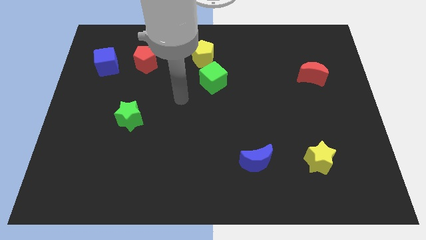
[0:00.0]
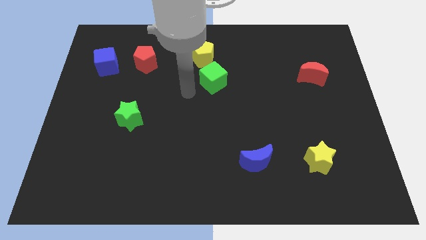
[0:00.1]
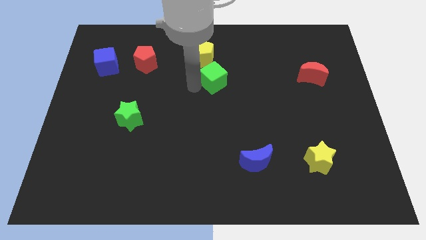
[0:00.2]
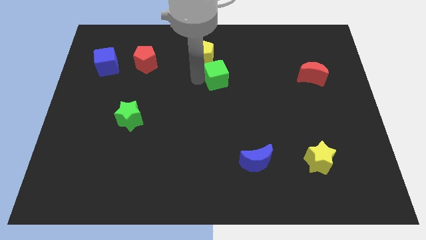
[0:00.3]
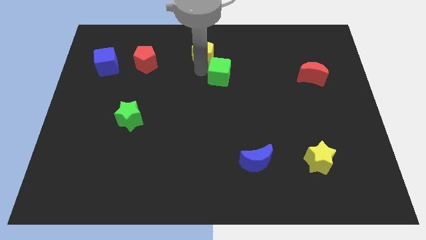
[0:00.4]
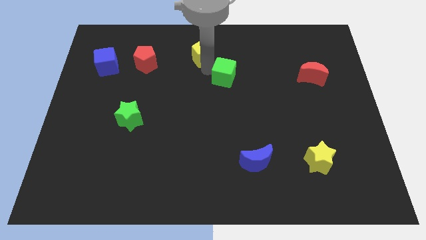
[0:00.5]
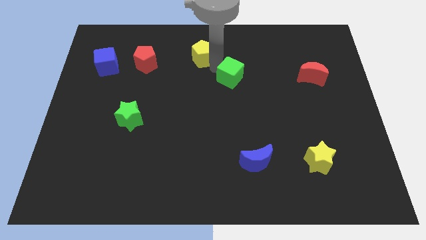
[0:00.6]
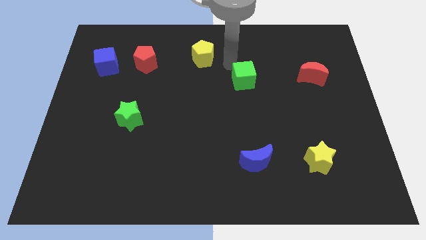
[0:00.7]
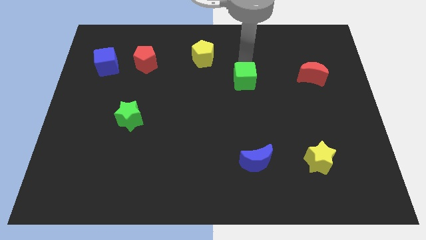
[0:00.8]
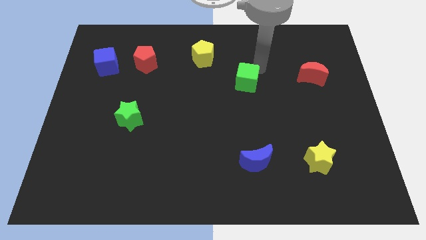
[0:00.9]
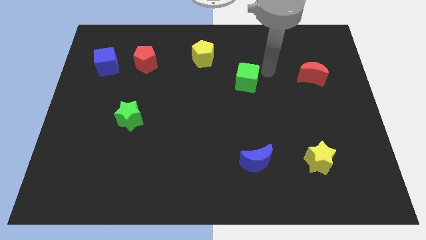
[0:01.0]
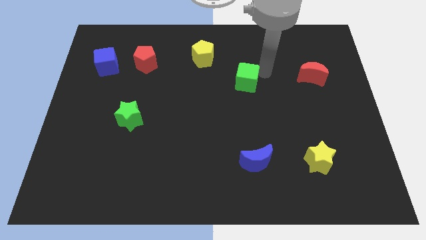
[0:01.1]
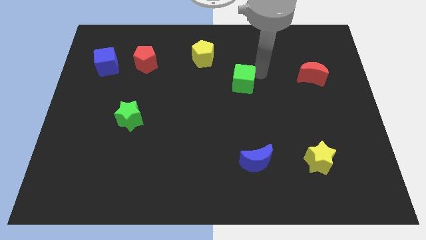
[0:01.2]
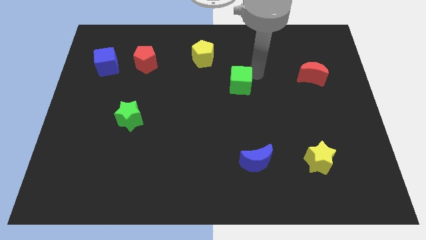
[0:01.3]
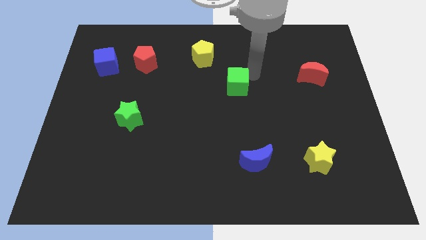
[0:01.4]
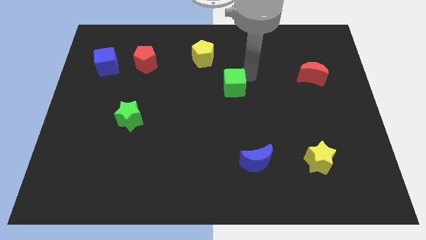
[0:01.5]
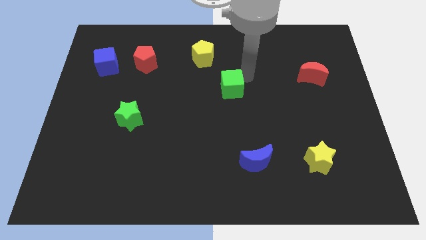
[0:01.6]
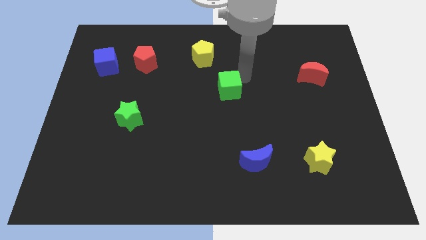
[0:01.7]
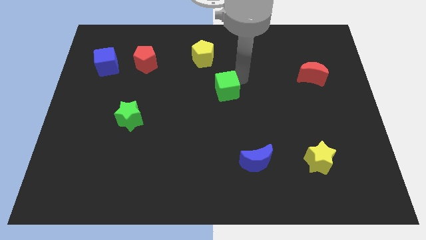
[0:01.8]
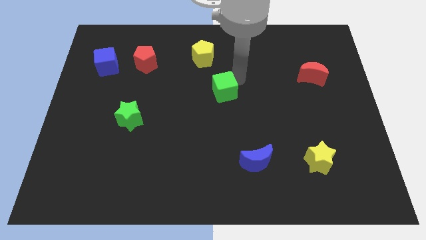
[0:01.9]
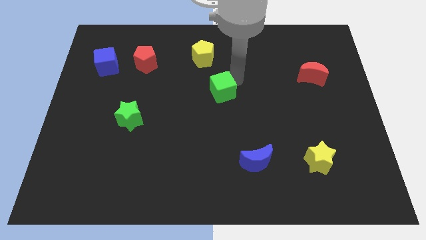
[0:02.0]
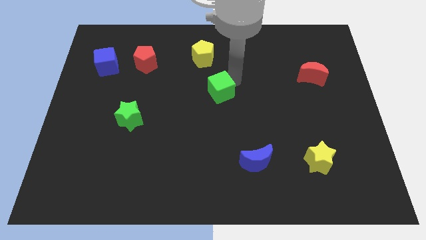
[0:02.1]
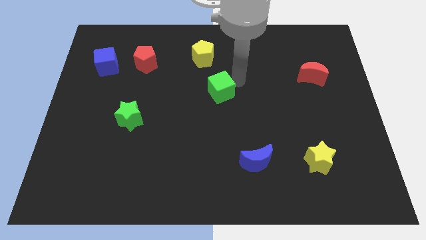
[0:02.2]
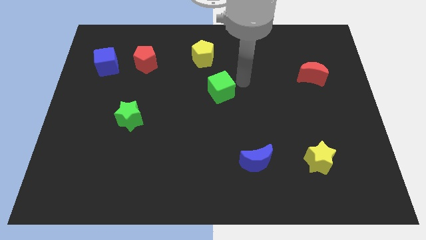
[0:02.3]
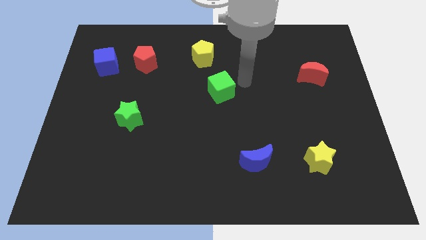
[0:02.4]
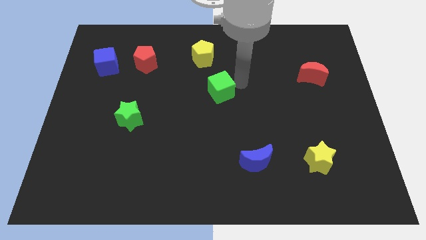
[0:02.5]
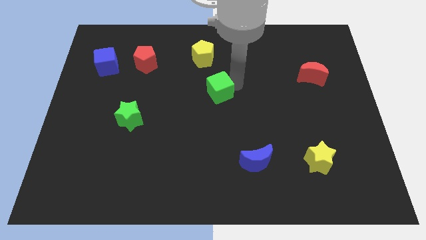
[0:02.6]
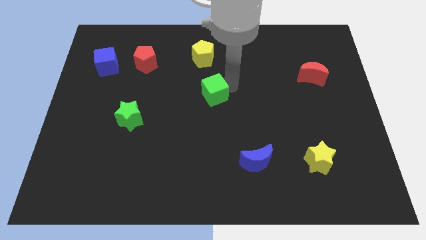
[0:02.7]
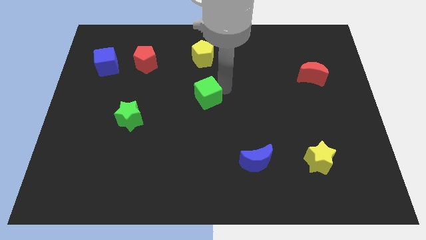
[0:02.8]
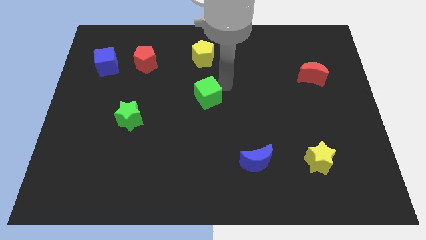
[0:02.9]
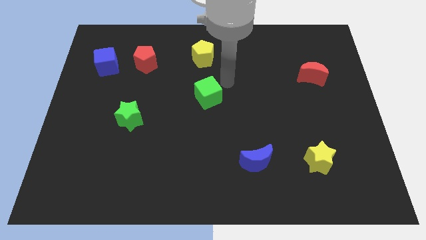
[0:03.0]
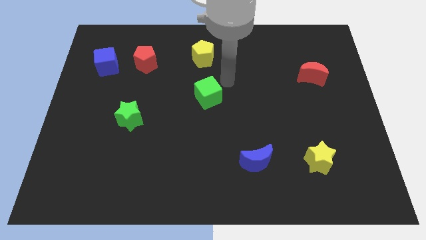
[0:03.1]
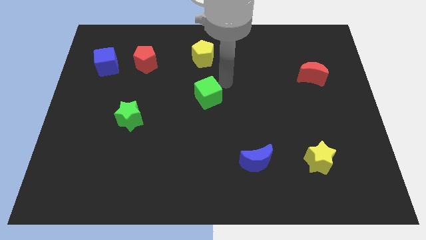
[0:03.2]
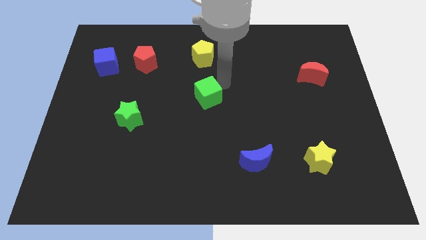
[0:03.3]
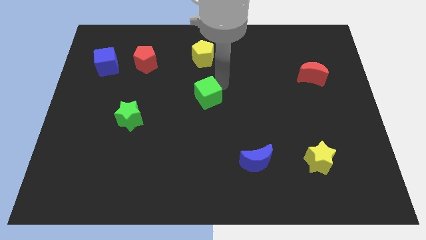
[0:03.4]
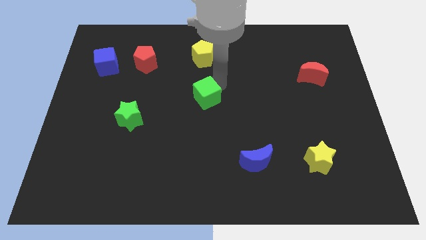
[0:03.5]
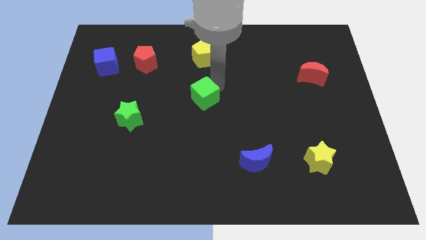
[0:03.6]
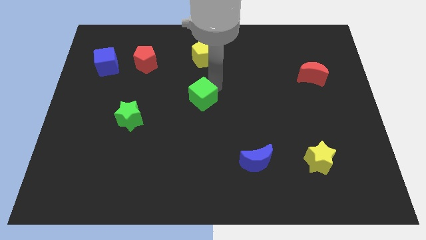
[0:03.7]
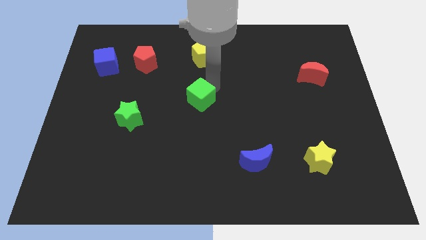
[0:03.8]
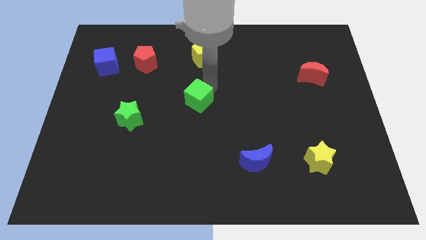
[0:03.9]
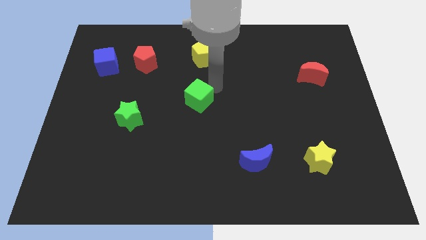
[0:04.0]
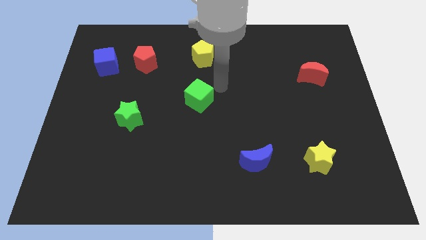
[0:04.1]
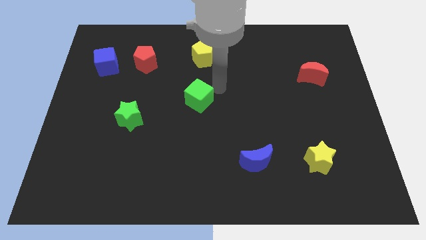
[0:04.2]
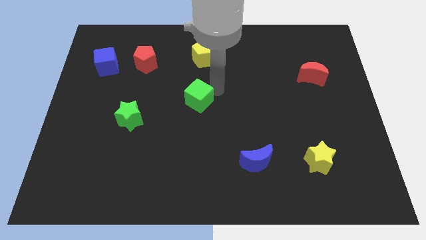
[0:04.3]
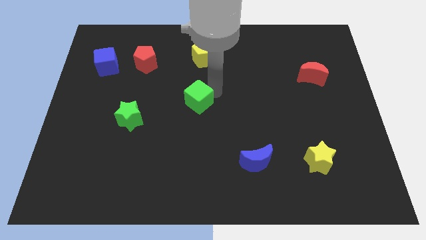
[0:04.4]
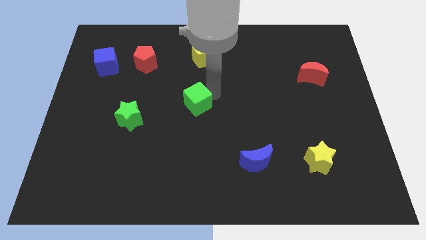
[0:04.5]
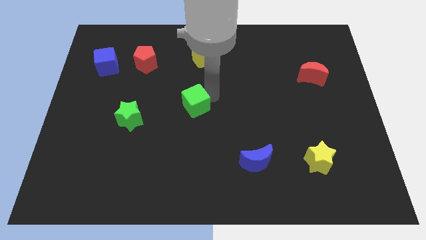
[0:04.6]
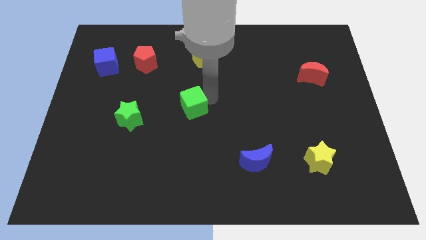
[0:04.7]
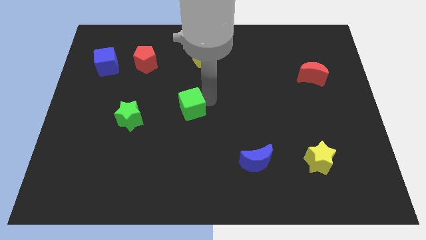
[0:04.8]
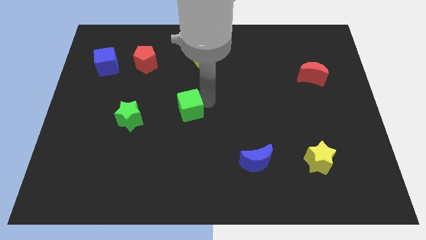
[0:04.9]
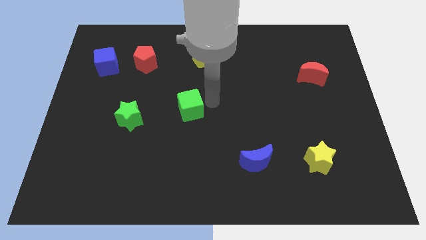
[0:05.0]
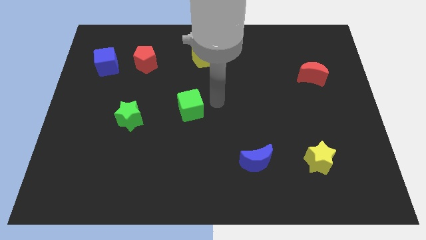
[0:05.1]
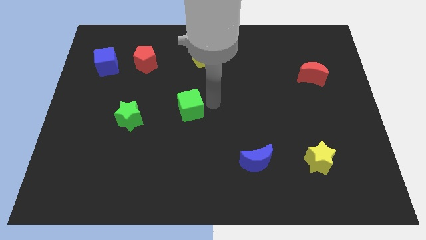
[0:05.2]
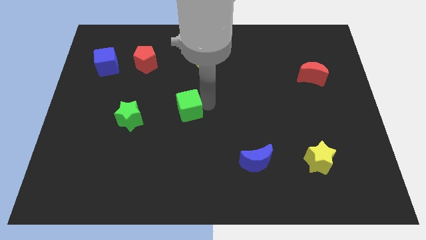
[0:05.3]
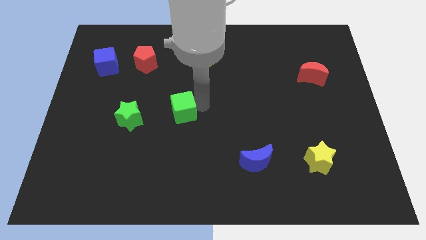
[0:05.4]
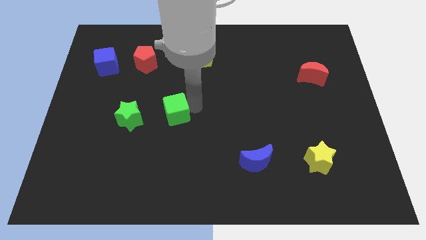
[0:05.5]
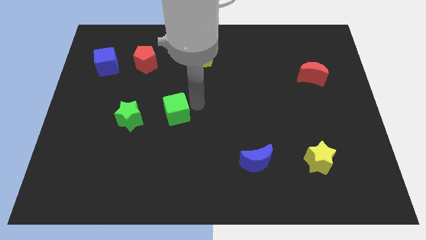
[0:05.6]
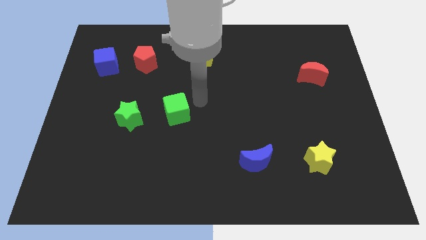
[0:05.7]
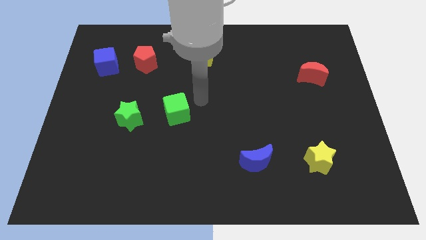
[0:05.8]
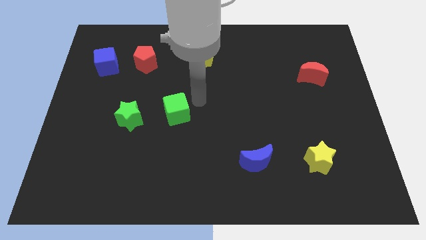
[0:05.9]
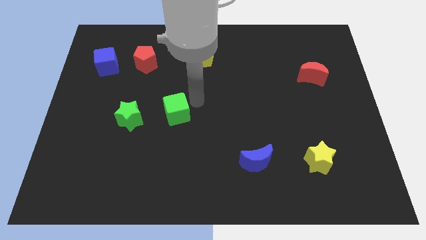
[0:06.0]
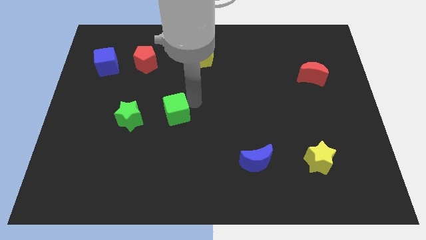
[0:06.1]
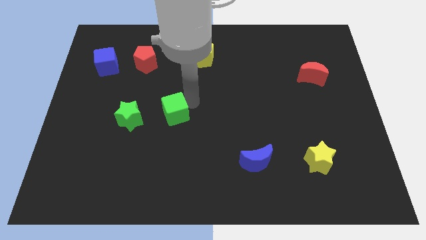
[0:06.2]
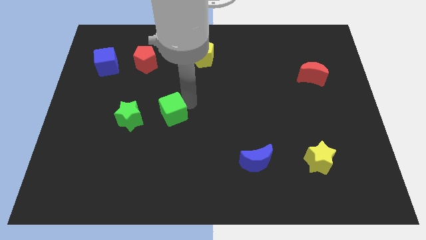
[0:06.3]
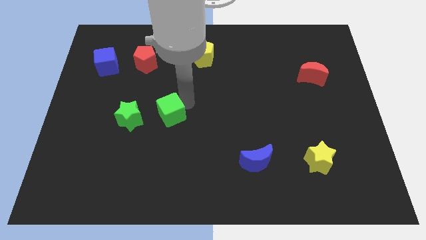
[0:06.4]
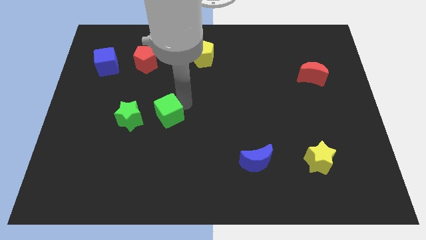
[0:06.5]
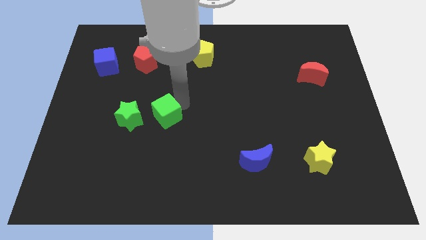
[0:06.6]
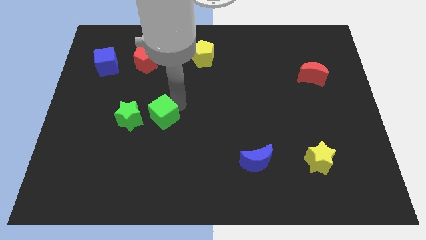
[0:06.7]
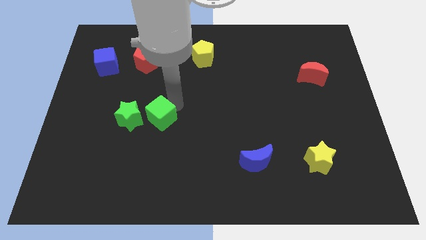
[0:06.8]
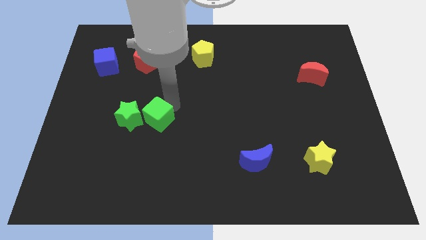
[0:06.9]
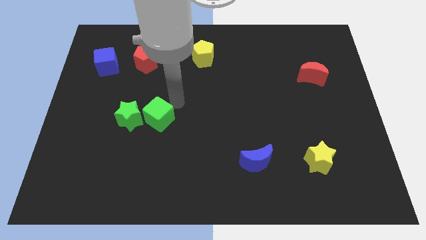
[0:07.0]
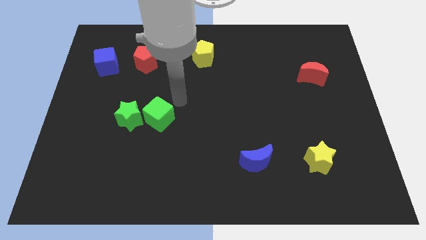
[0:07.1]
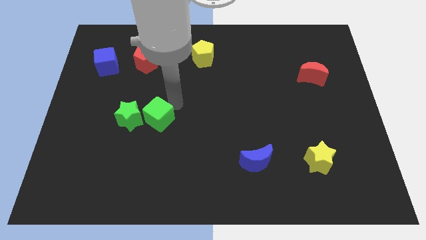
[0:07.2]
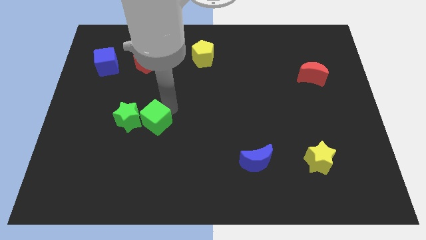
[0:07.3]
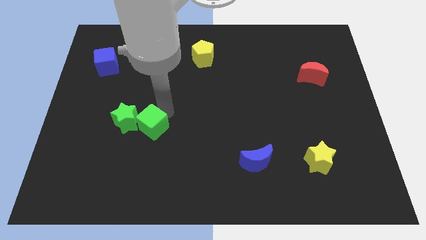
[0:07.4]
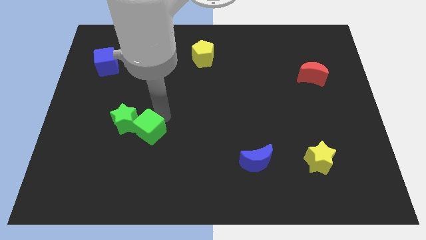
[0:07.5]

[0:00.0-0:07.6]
push the green cube diagonally down and left

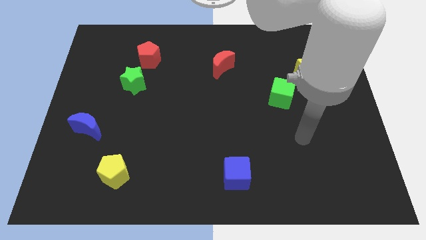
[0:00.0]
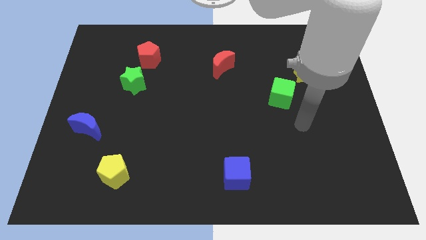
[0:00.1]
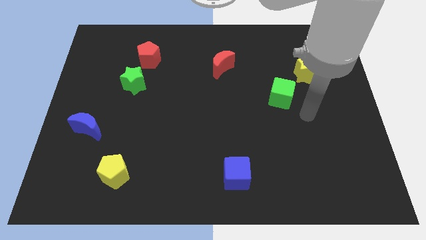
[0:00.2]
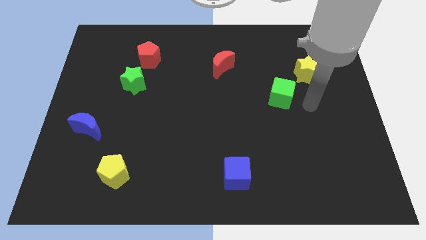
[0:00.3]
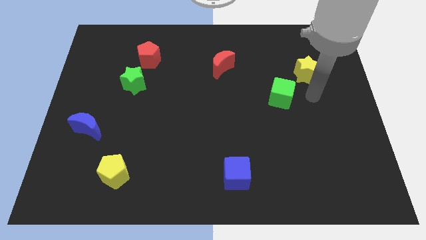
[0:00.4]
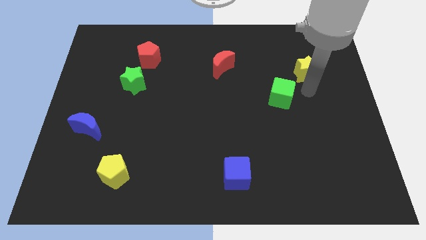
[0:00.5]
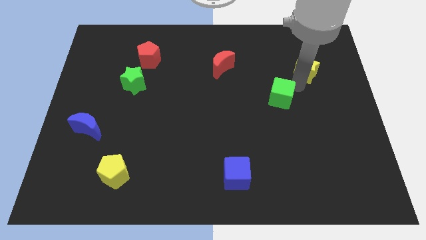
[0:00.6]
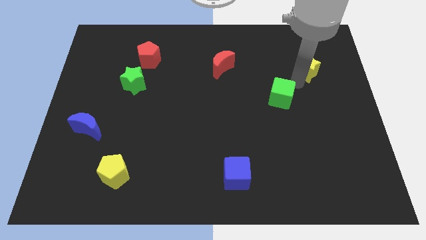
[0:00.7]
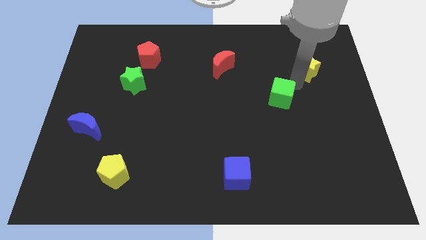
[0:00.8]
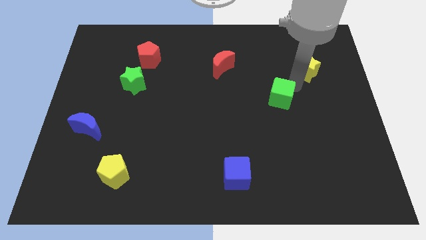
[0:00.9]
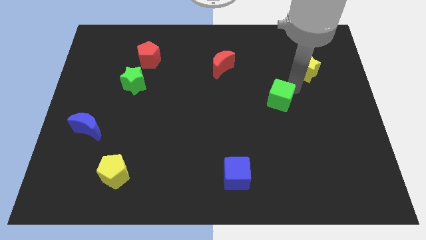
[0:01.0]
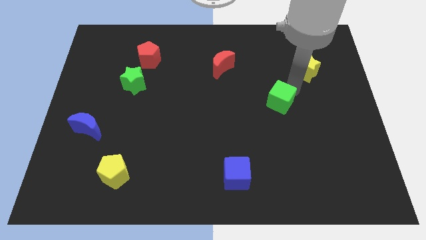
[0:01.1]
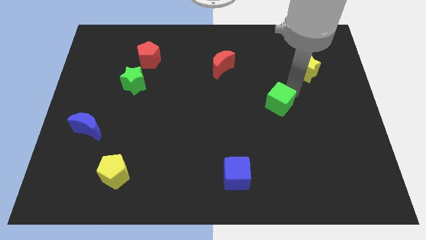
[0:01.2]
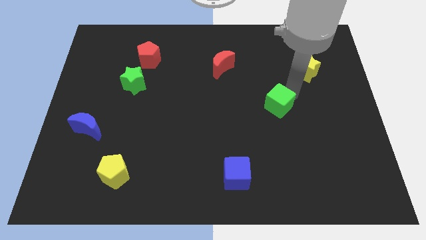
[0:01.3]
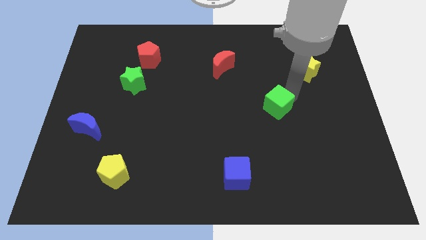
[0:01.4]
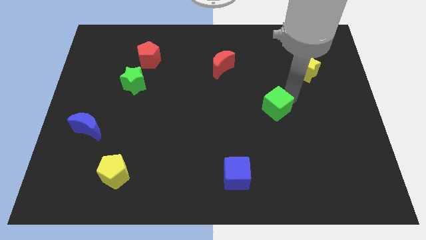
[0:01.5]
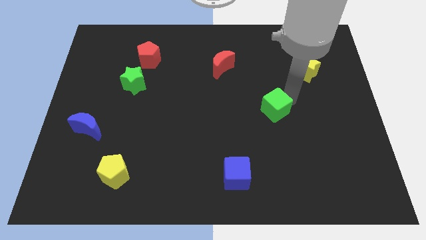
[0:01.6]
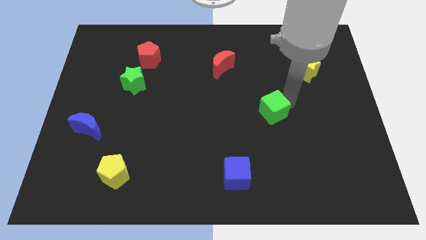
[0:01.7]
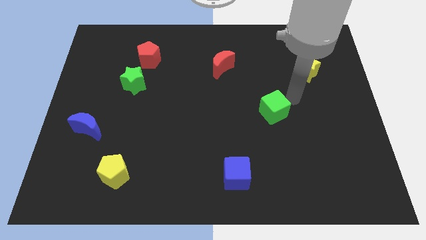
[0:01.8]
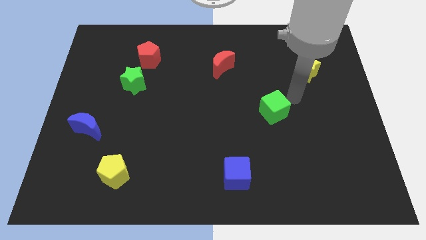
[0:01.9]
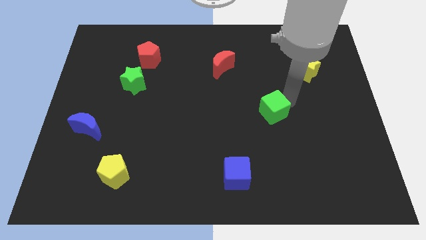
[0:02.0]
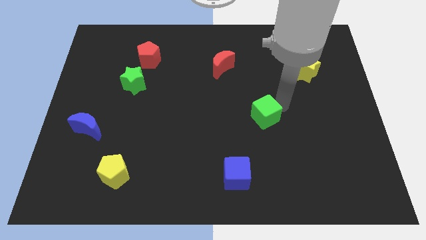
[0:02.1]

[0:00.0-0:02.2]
push the green cube diagonally downwards and left slightly
